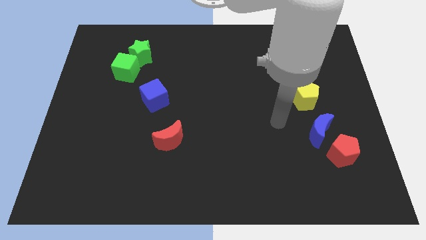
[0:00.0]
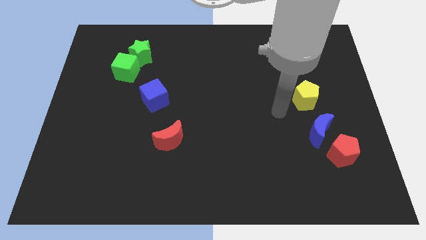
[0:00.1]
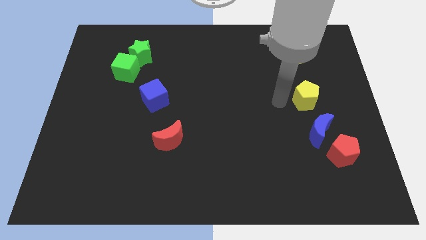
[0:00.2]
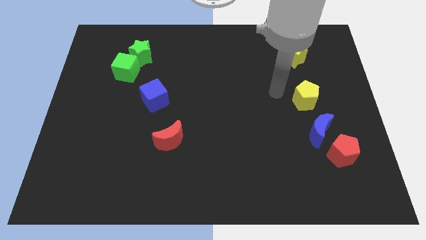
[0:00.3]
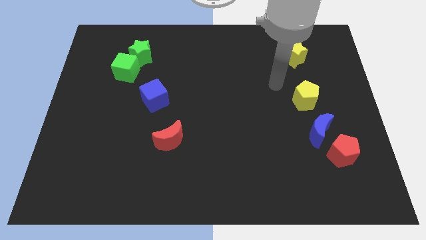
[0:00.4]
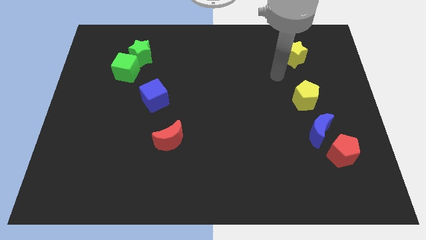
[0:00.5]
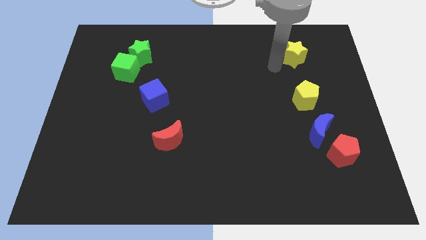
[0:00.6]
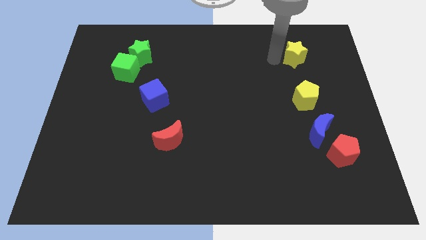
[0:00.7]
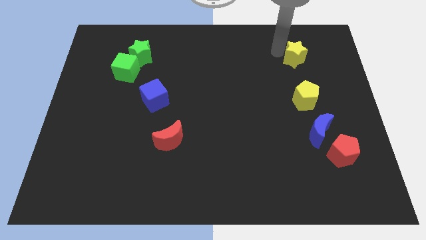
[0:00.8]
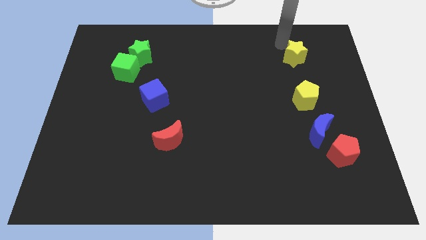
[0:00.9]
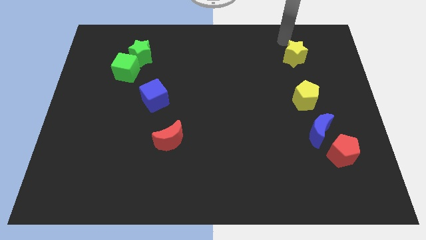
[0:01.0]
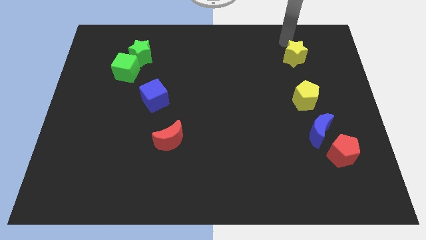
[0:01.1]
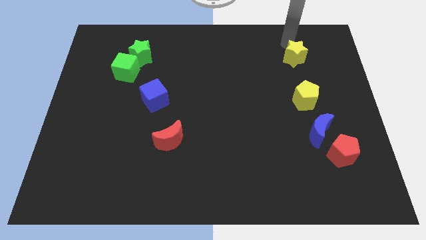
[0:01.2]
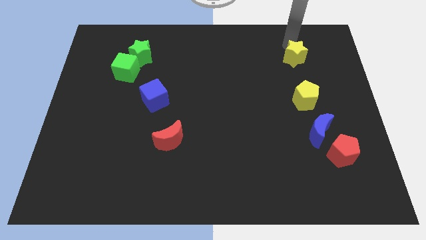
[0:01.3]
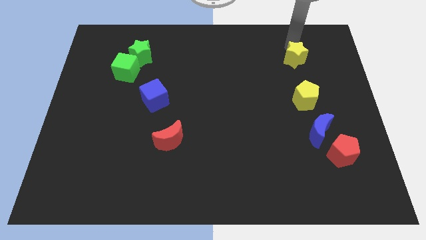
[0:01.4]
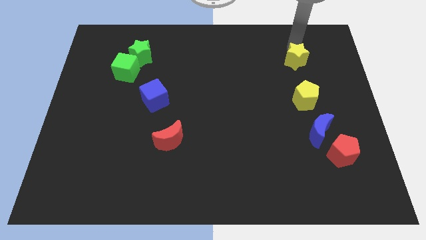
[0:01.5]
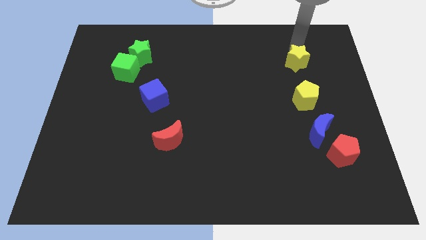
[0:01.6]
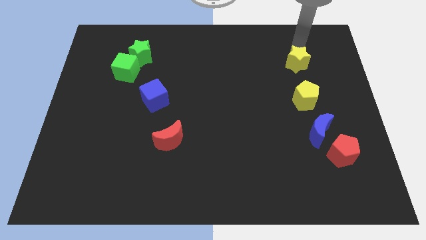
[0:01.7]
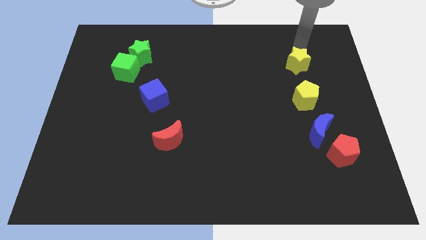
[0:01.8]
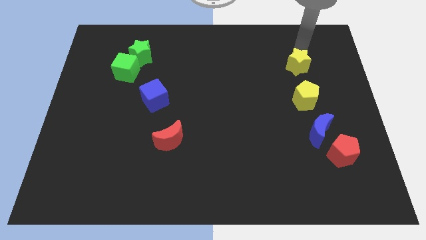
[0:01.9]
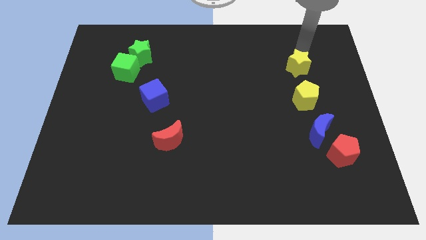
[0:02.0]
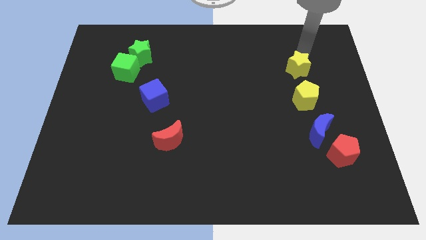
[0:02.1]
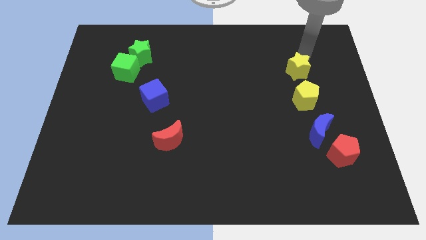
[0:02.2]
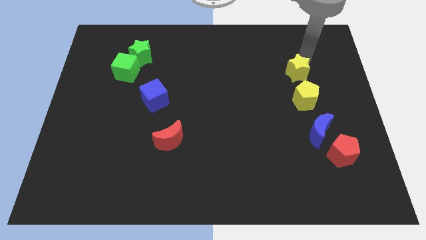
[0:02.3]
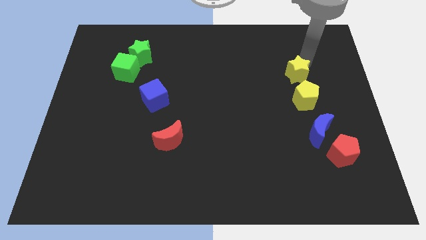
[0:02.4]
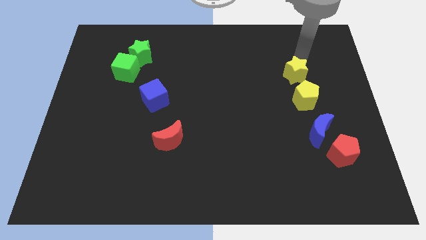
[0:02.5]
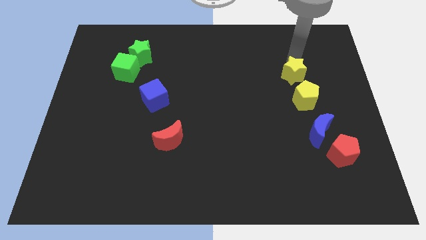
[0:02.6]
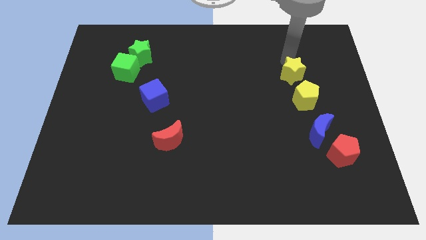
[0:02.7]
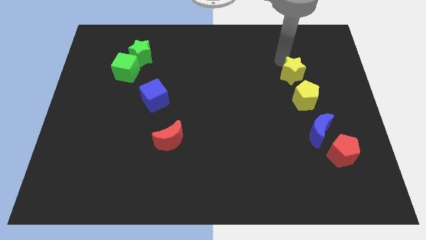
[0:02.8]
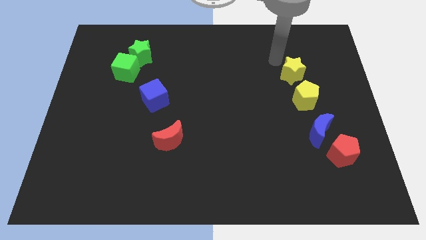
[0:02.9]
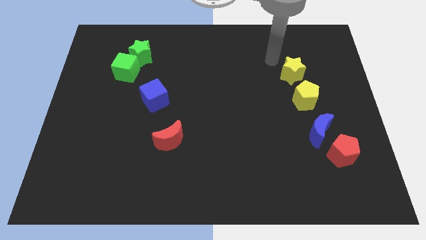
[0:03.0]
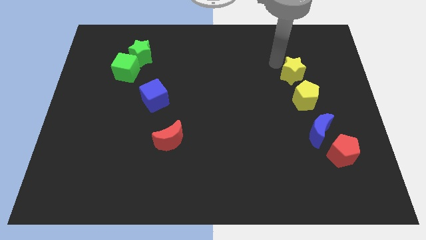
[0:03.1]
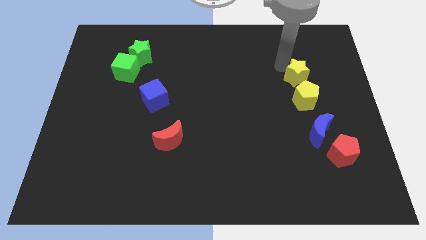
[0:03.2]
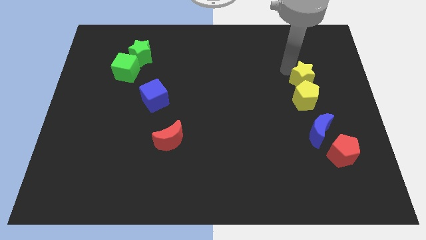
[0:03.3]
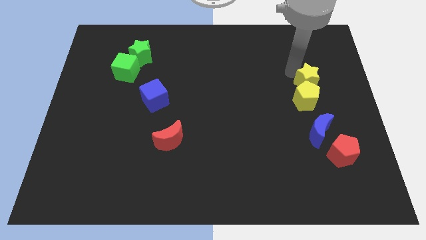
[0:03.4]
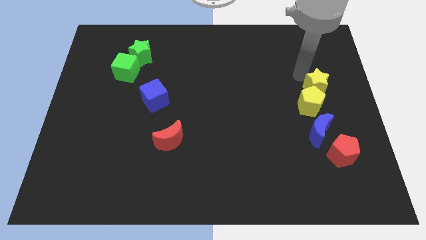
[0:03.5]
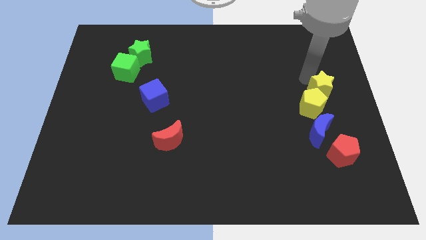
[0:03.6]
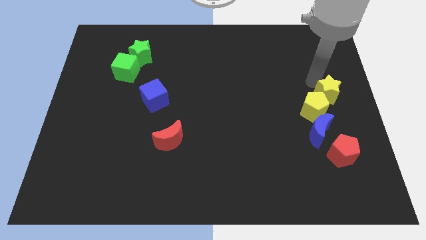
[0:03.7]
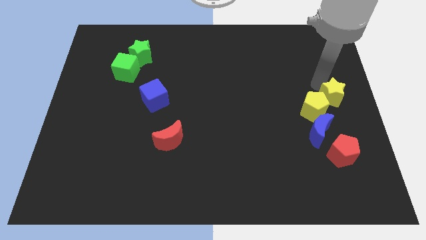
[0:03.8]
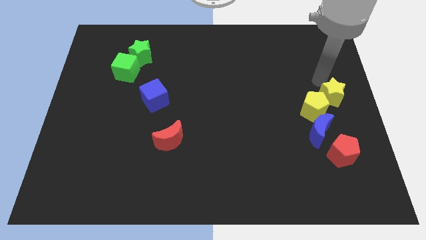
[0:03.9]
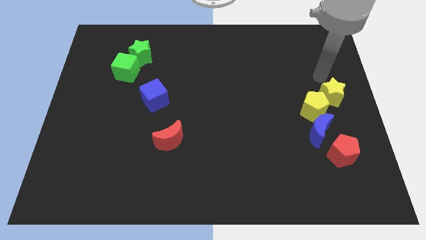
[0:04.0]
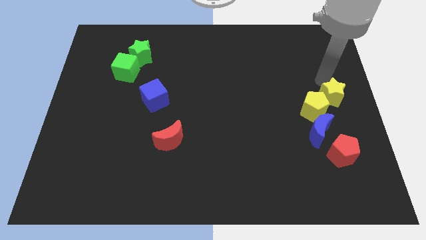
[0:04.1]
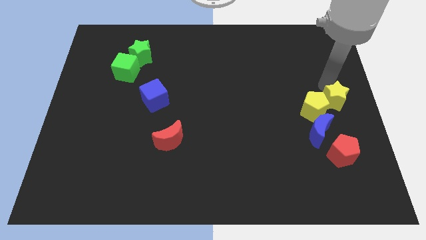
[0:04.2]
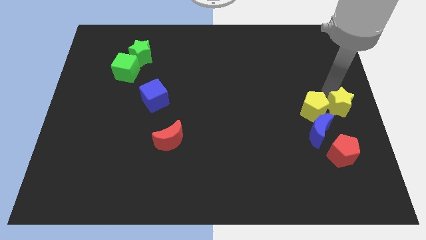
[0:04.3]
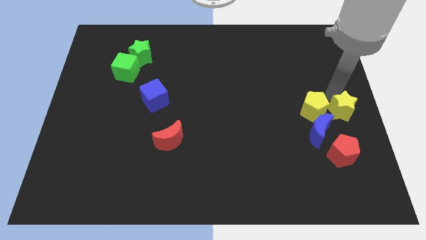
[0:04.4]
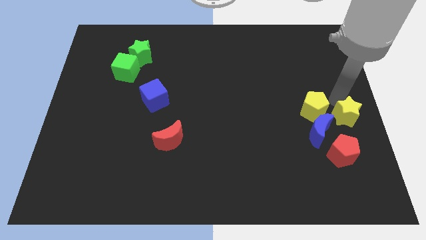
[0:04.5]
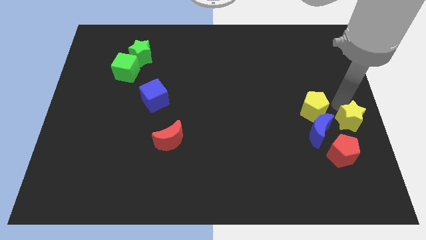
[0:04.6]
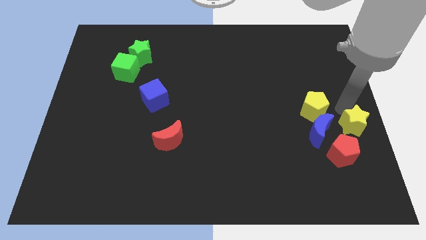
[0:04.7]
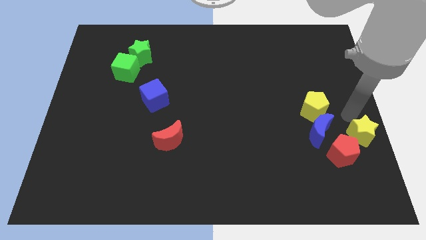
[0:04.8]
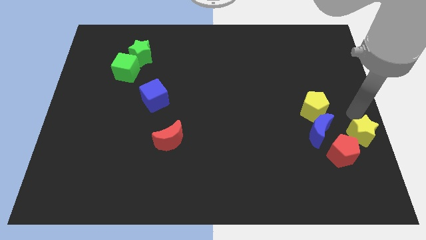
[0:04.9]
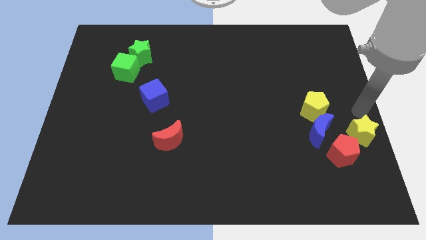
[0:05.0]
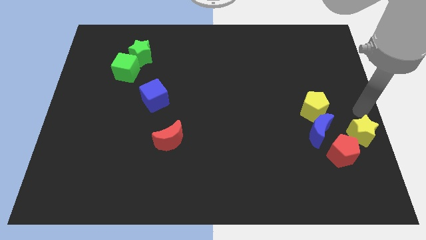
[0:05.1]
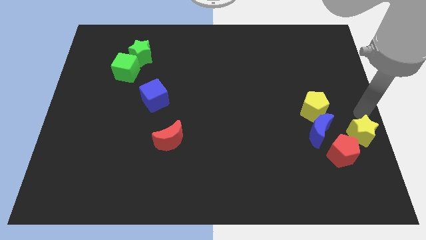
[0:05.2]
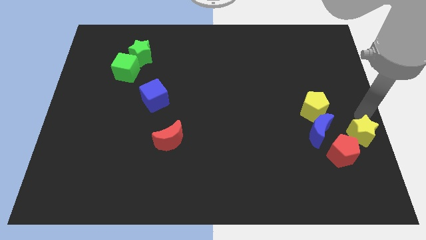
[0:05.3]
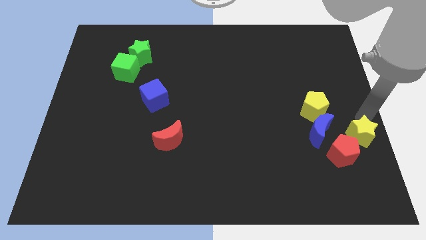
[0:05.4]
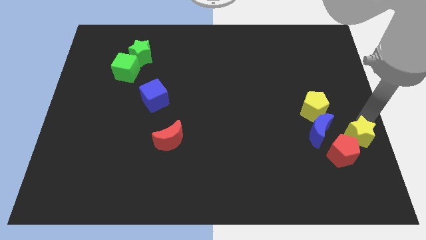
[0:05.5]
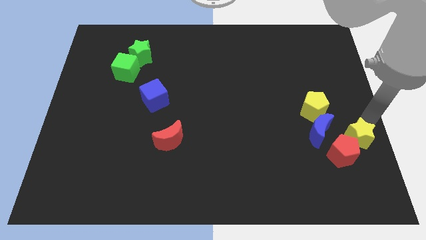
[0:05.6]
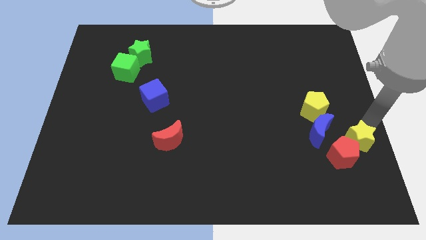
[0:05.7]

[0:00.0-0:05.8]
move the yellow star diagonally down and to the right of the blue moon

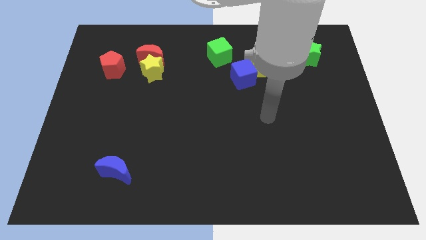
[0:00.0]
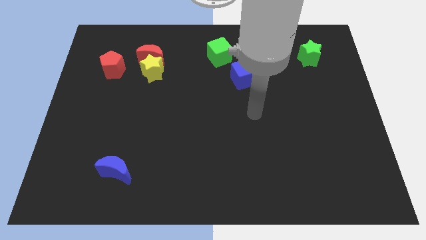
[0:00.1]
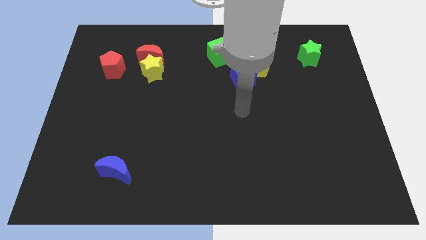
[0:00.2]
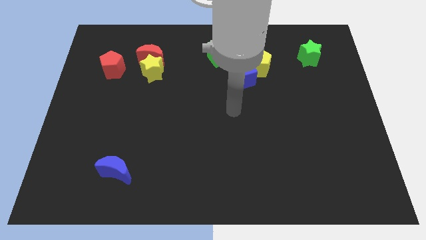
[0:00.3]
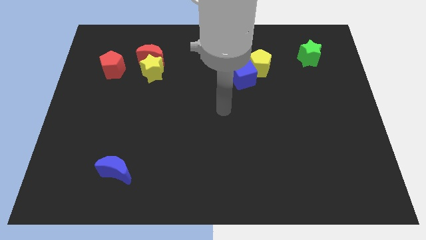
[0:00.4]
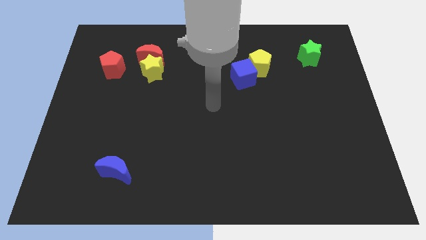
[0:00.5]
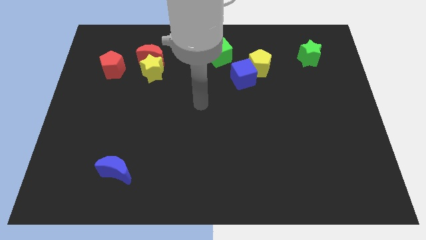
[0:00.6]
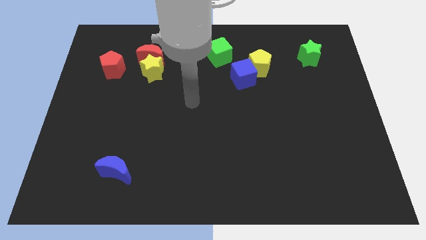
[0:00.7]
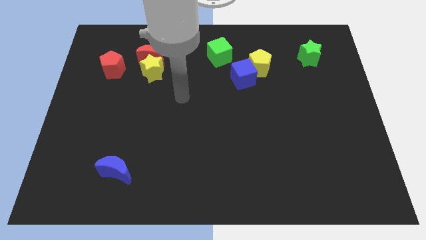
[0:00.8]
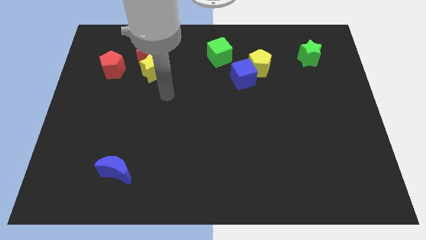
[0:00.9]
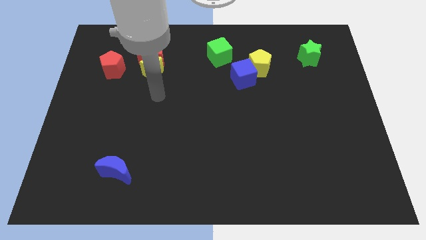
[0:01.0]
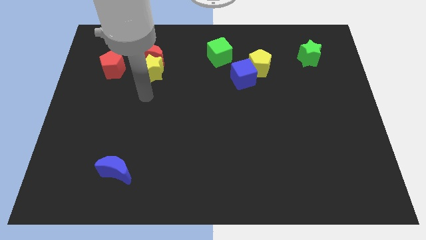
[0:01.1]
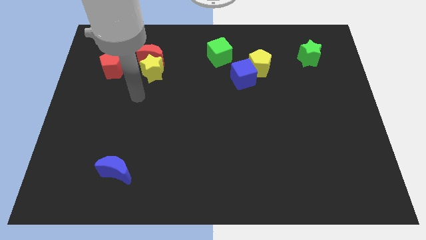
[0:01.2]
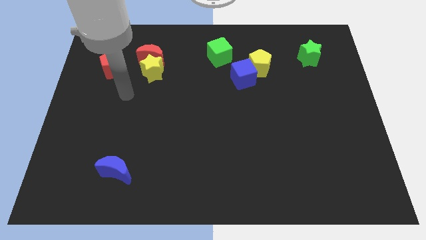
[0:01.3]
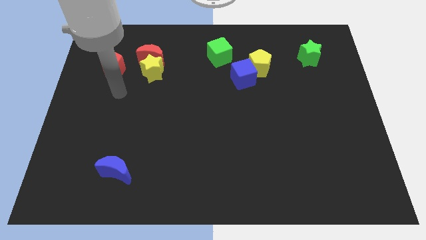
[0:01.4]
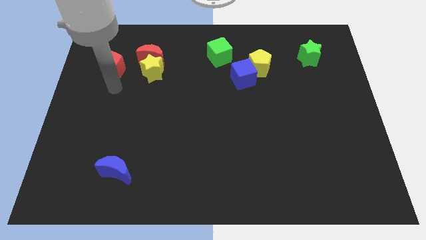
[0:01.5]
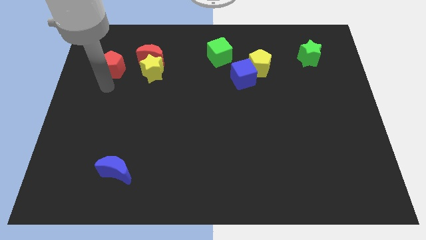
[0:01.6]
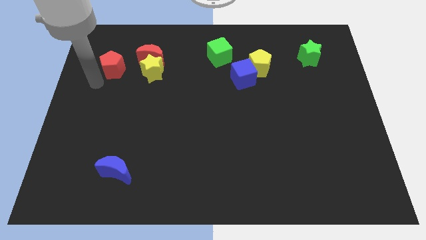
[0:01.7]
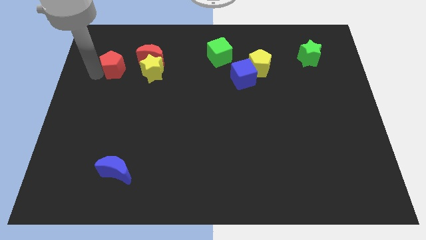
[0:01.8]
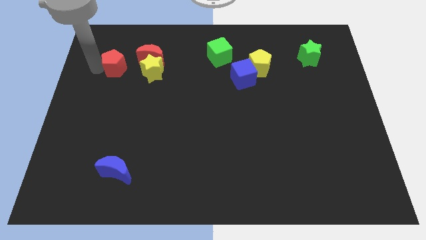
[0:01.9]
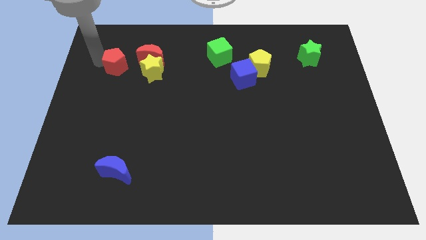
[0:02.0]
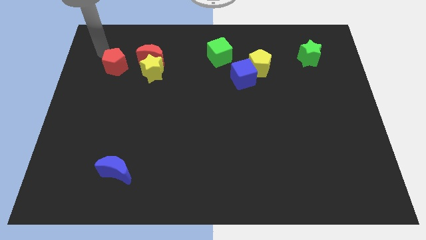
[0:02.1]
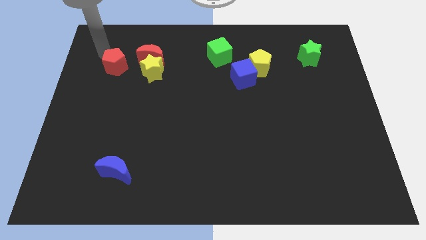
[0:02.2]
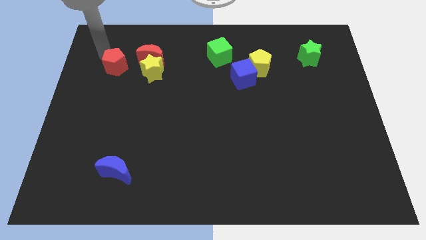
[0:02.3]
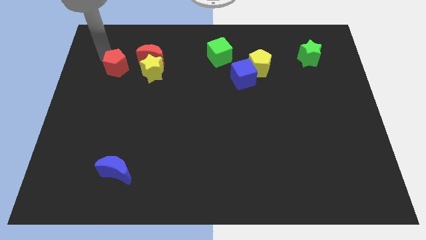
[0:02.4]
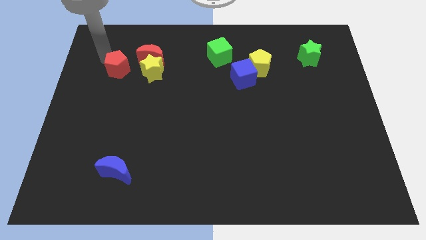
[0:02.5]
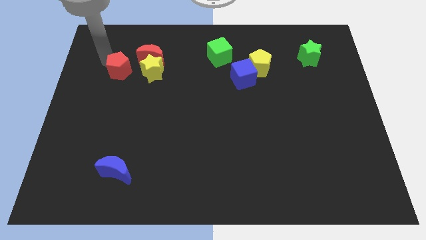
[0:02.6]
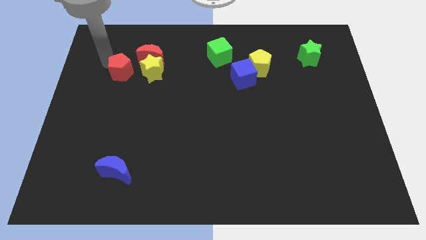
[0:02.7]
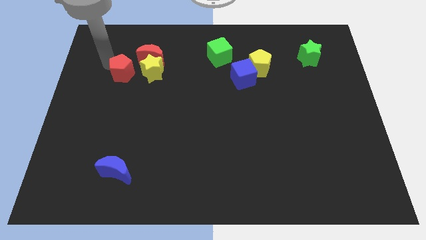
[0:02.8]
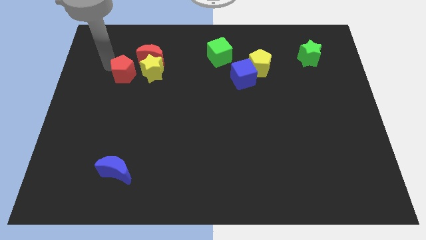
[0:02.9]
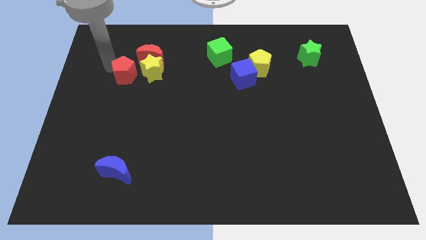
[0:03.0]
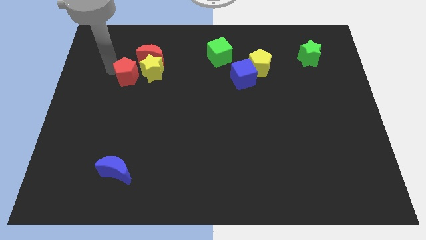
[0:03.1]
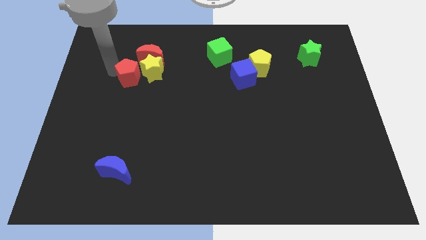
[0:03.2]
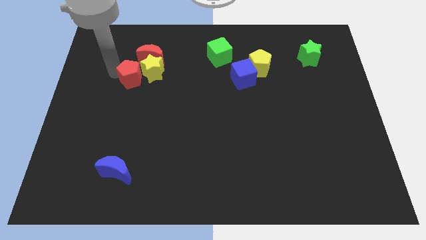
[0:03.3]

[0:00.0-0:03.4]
push the red pentagon to the bottom side of the red moon
